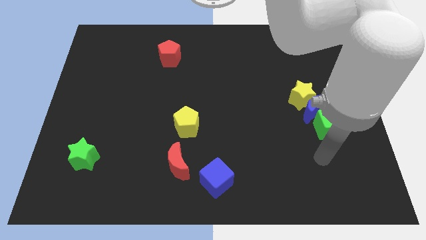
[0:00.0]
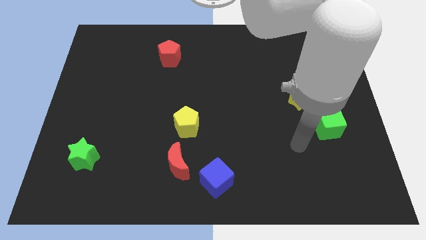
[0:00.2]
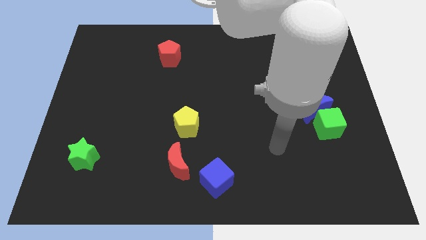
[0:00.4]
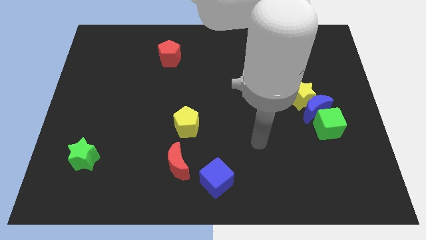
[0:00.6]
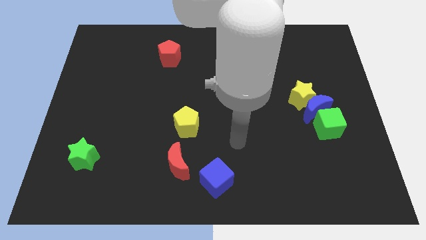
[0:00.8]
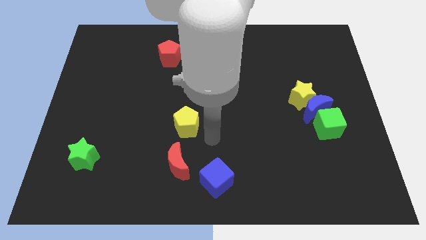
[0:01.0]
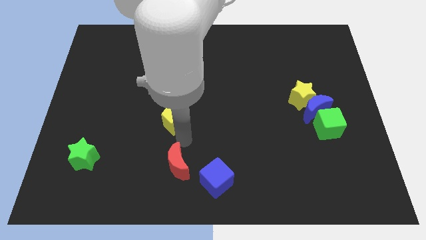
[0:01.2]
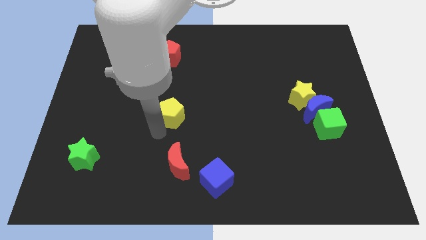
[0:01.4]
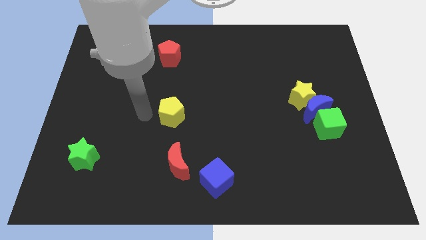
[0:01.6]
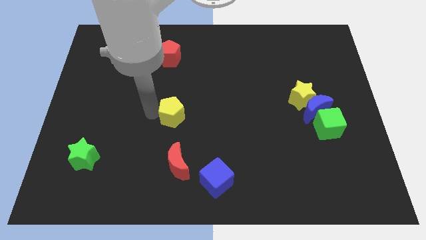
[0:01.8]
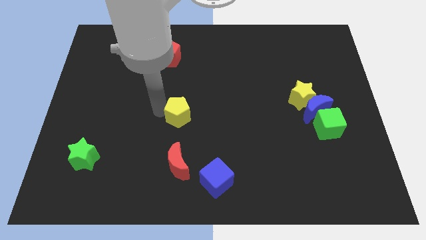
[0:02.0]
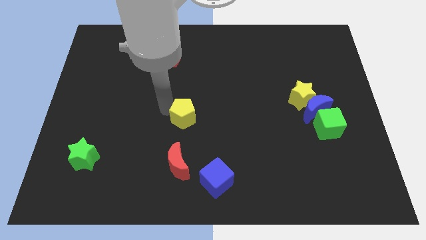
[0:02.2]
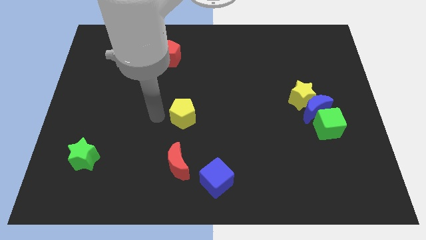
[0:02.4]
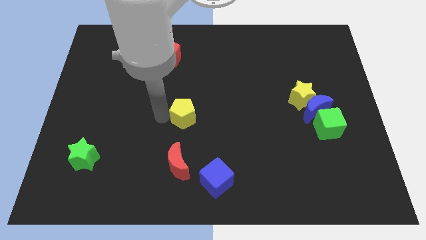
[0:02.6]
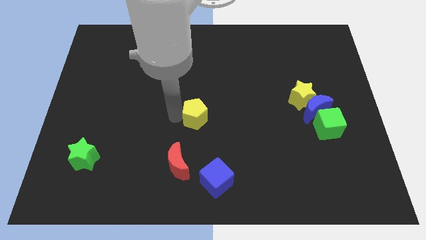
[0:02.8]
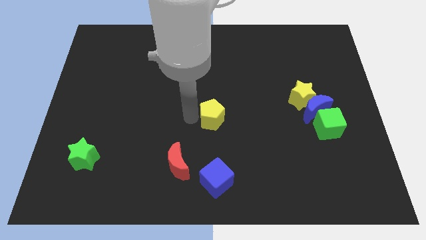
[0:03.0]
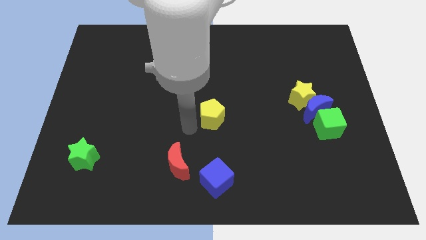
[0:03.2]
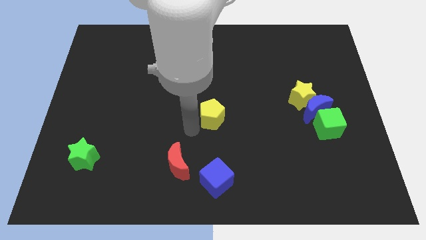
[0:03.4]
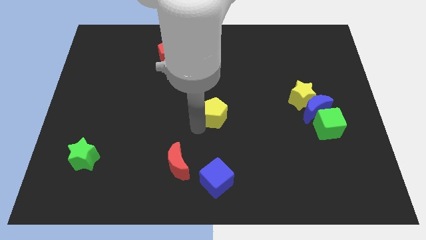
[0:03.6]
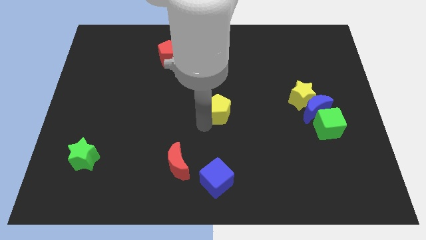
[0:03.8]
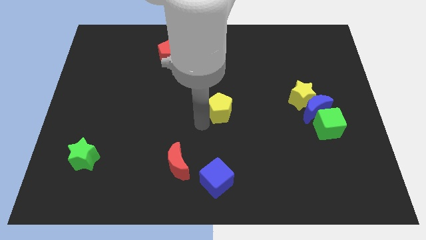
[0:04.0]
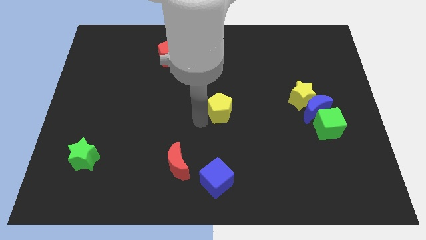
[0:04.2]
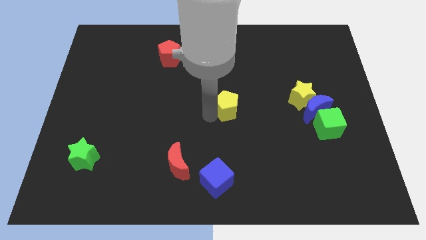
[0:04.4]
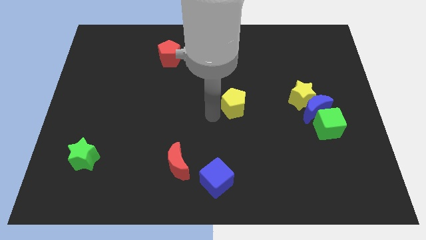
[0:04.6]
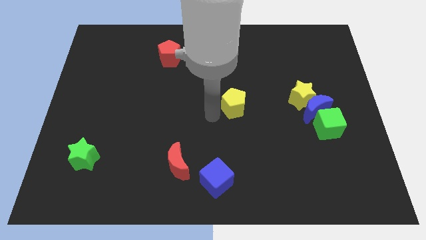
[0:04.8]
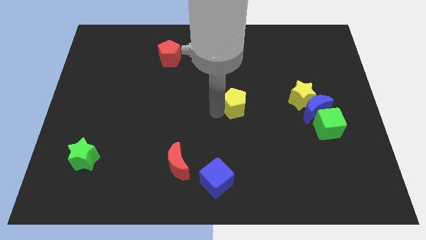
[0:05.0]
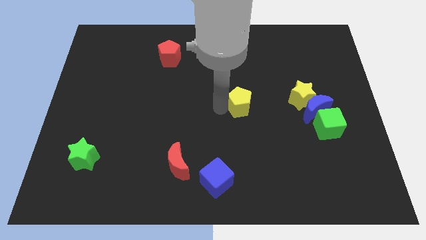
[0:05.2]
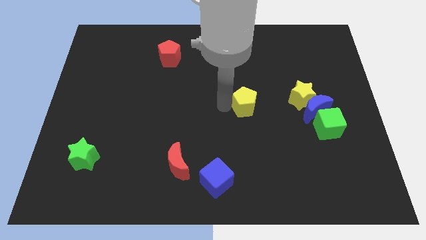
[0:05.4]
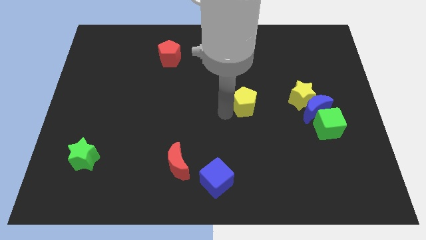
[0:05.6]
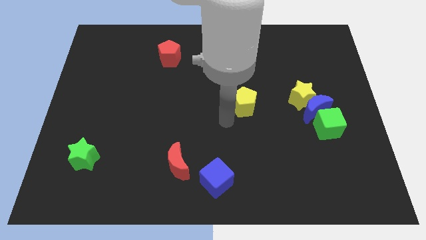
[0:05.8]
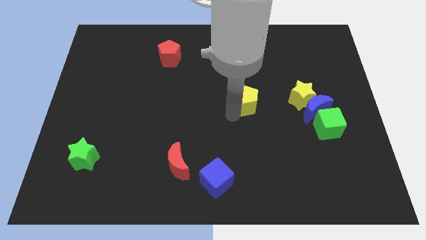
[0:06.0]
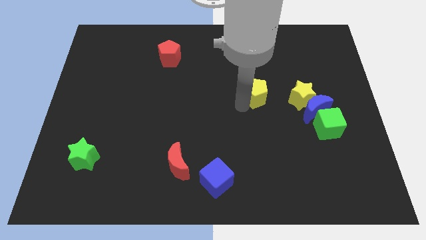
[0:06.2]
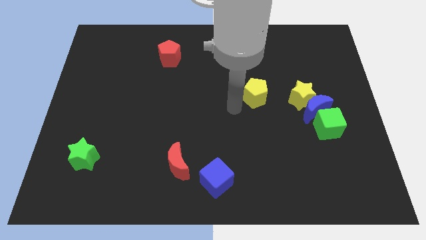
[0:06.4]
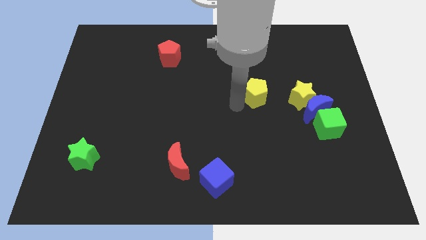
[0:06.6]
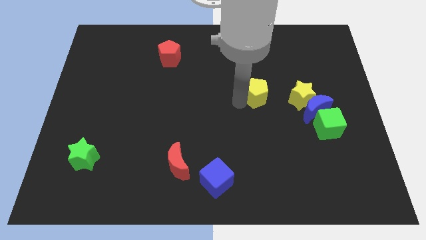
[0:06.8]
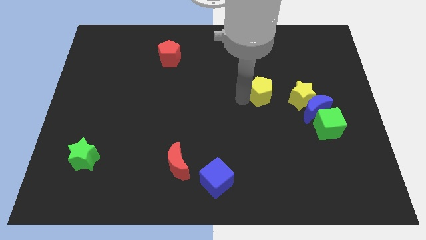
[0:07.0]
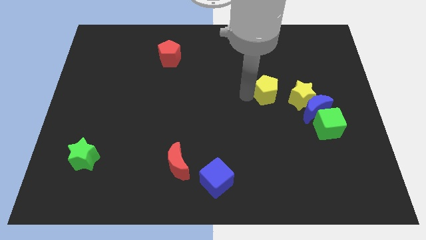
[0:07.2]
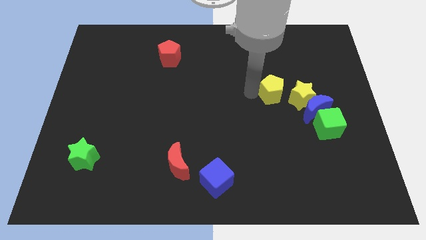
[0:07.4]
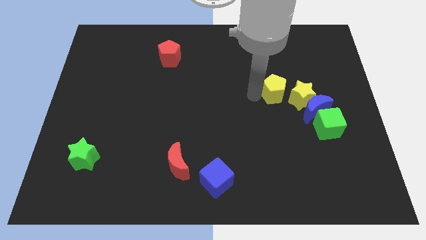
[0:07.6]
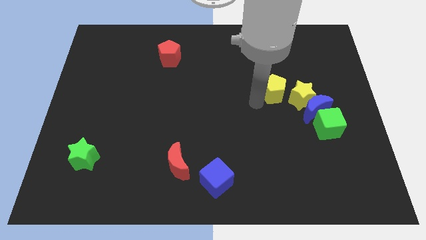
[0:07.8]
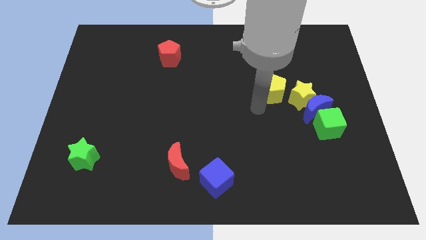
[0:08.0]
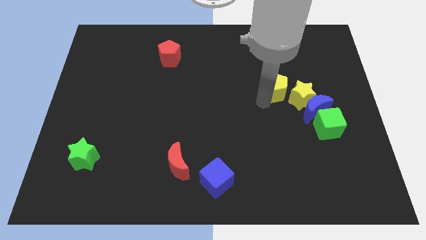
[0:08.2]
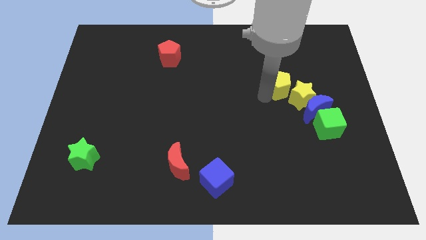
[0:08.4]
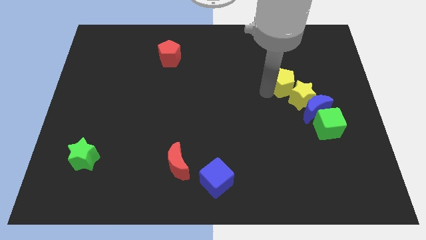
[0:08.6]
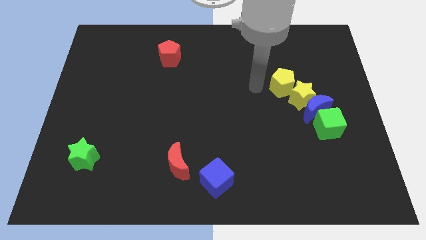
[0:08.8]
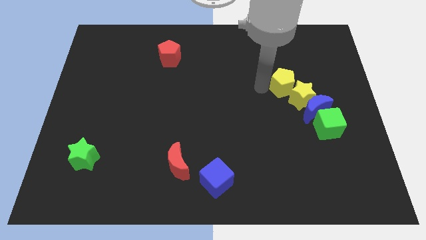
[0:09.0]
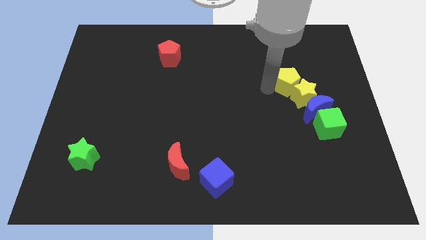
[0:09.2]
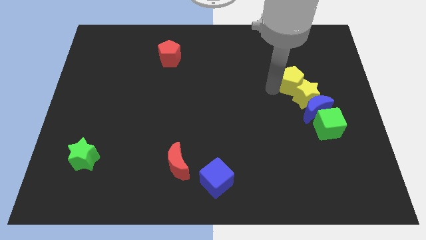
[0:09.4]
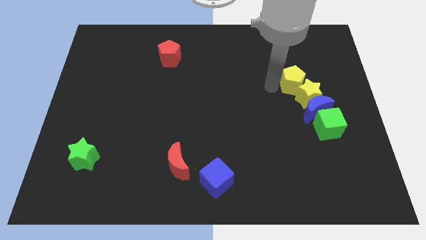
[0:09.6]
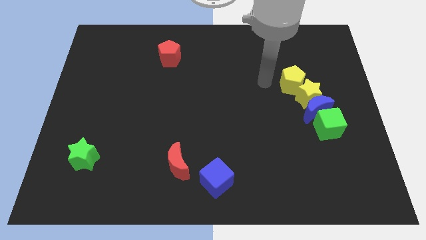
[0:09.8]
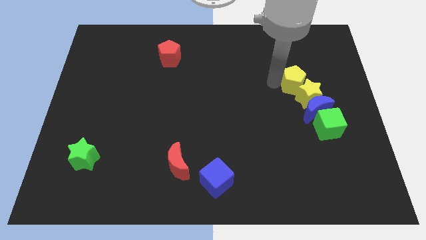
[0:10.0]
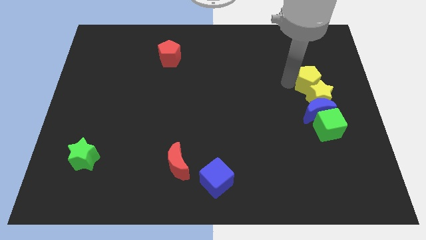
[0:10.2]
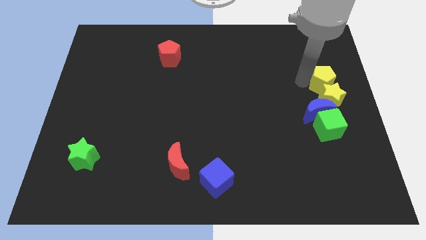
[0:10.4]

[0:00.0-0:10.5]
put the yellow pentagon to the right side

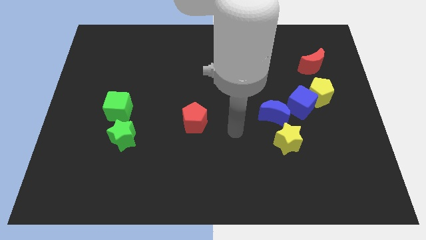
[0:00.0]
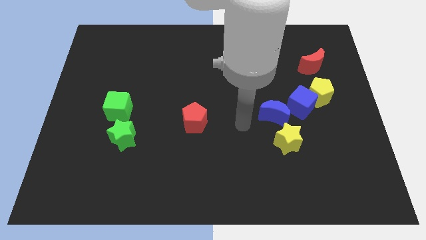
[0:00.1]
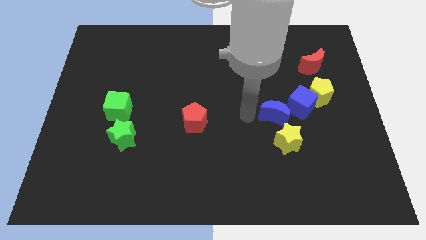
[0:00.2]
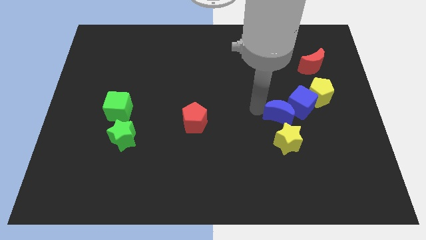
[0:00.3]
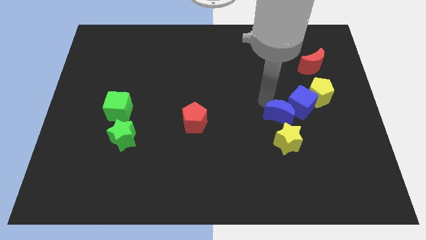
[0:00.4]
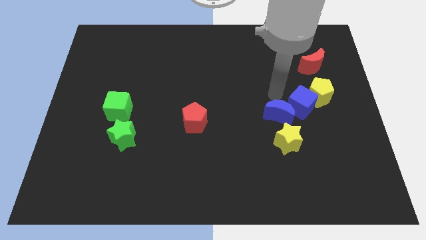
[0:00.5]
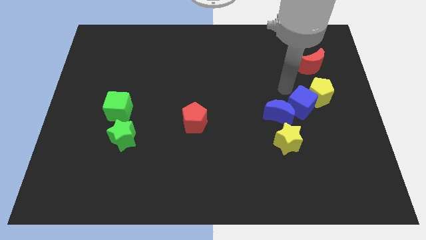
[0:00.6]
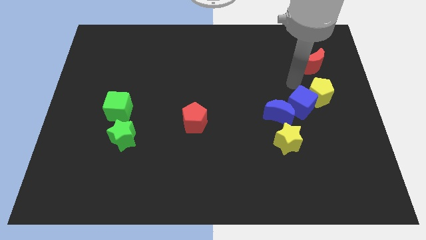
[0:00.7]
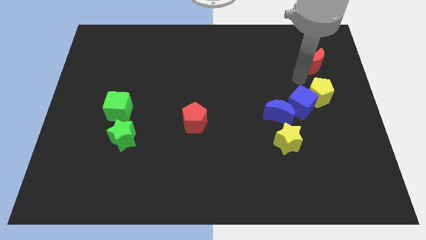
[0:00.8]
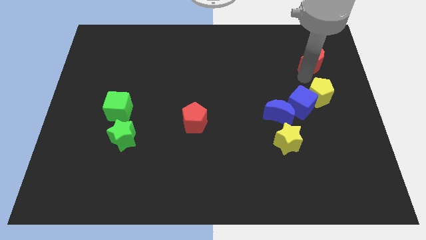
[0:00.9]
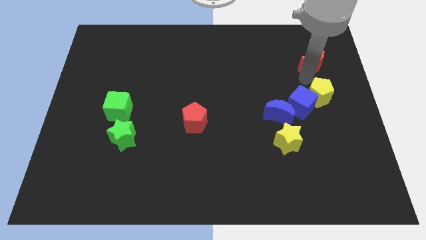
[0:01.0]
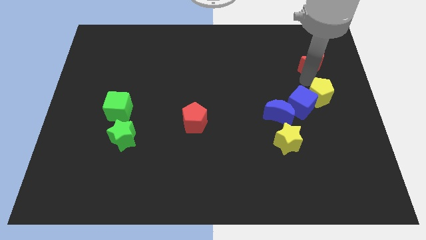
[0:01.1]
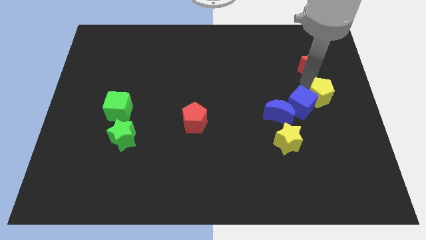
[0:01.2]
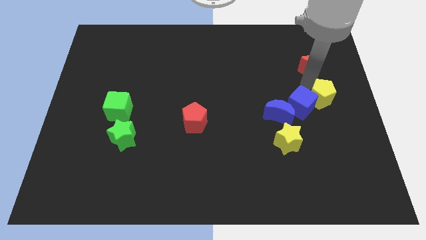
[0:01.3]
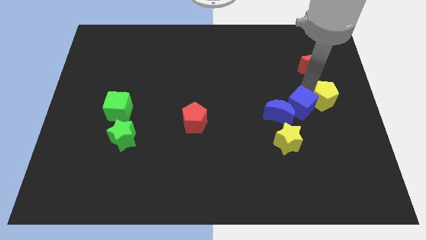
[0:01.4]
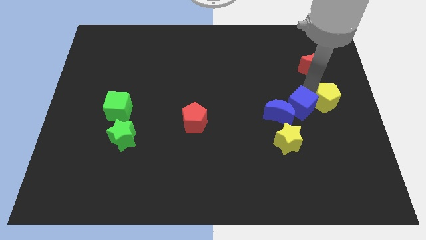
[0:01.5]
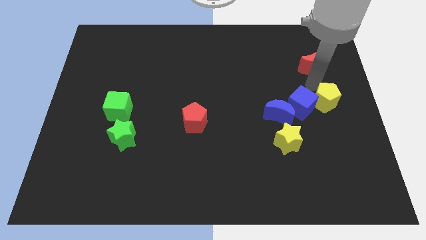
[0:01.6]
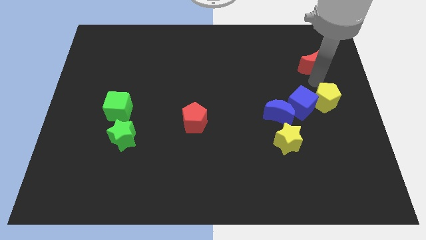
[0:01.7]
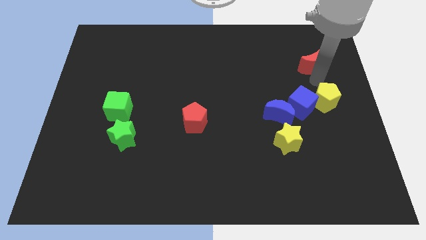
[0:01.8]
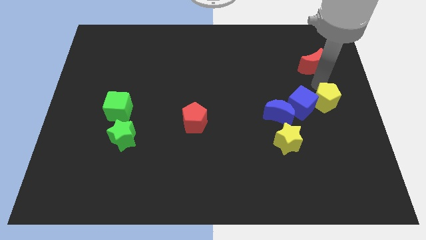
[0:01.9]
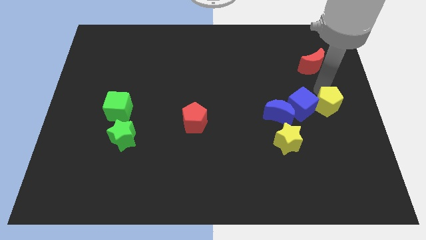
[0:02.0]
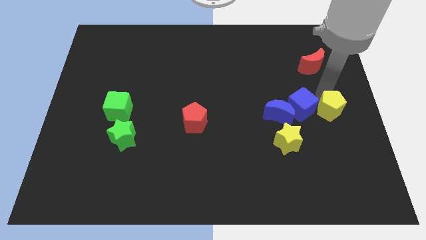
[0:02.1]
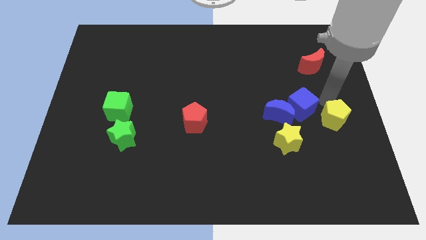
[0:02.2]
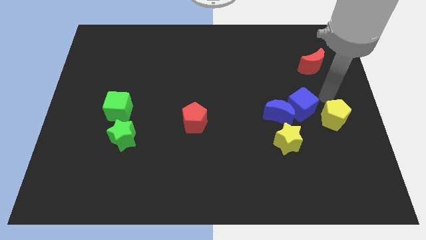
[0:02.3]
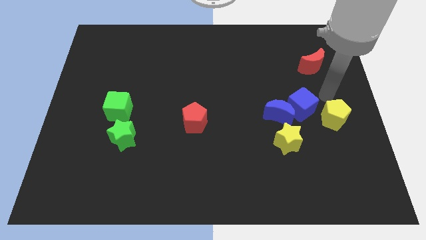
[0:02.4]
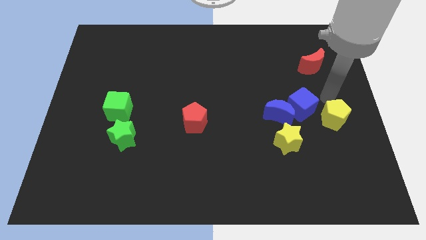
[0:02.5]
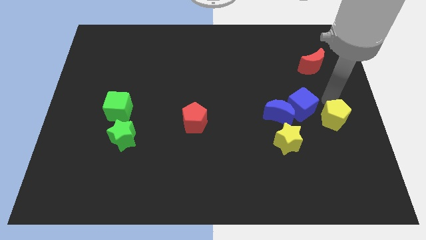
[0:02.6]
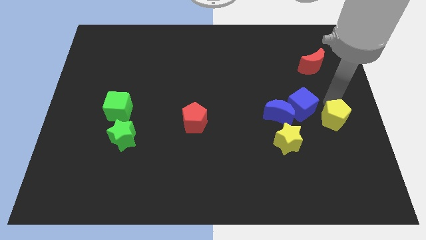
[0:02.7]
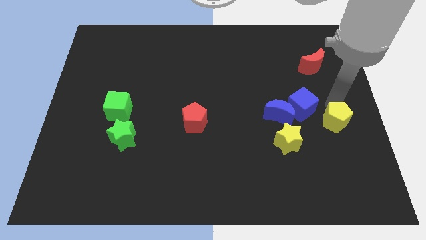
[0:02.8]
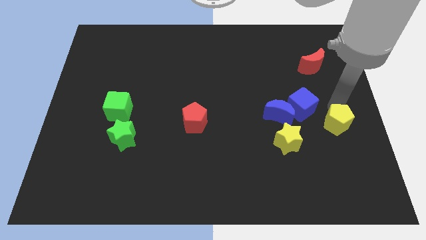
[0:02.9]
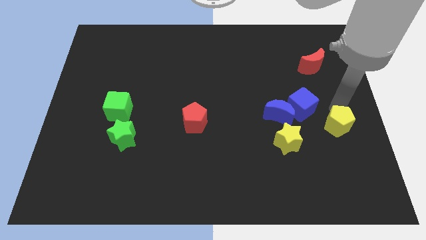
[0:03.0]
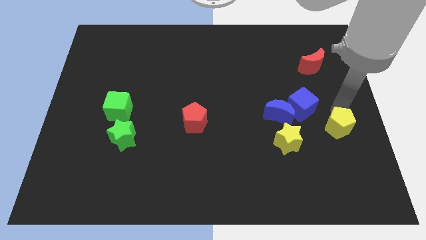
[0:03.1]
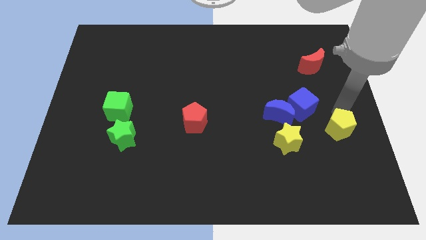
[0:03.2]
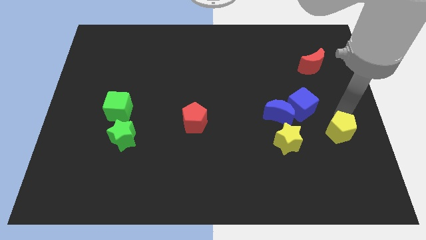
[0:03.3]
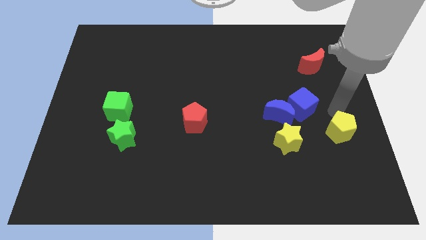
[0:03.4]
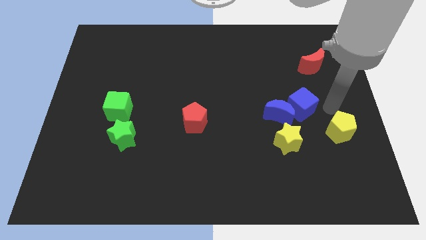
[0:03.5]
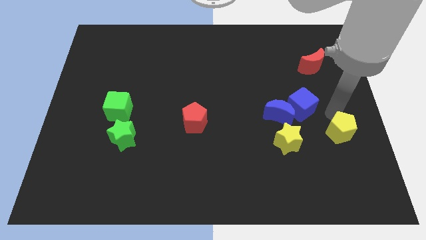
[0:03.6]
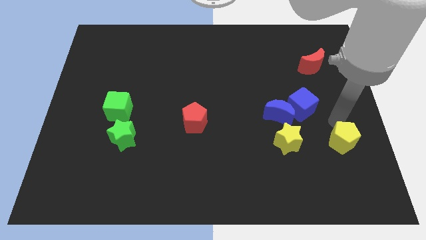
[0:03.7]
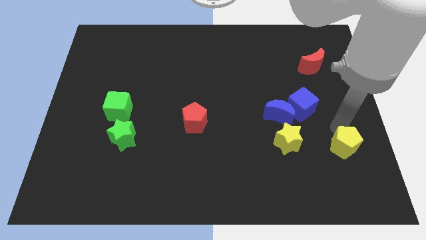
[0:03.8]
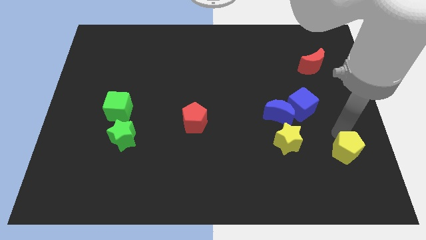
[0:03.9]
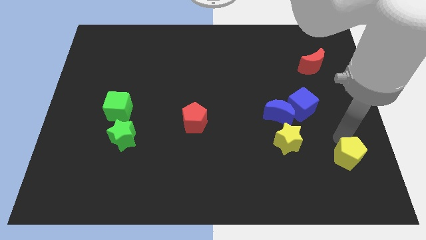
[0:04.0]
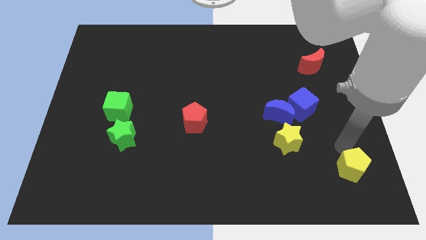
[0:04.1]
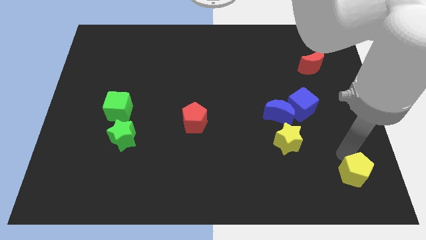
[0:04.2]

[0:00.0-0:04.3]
push the yellow pentagon to the bottom right of the board
